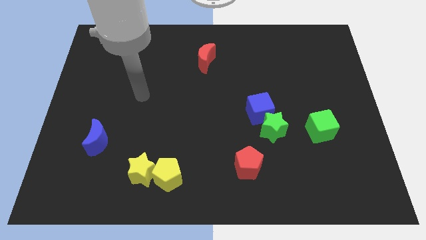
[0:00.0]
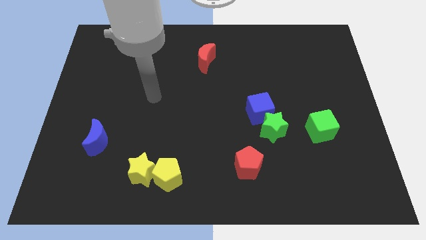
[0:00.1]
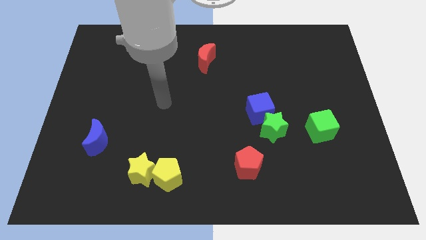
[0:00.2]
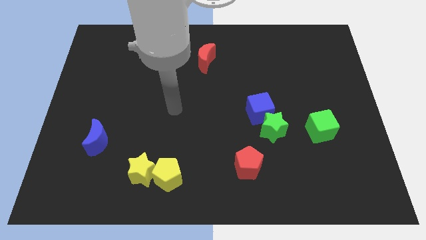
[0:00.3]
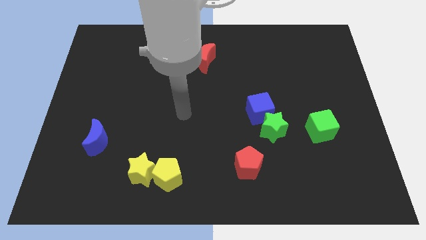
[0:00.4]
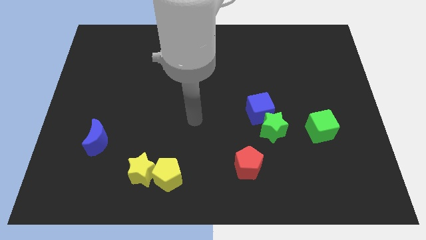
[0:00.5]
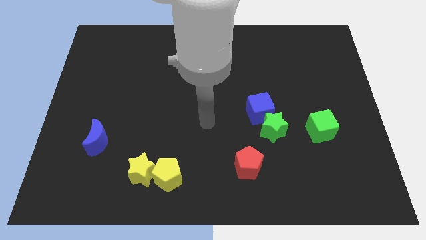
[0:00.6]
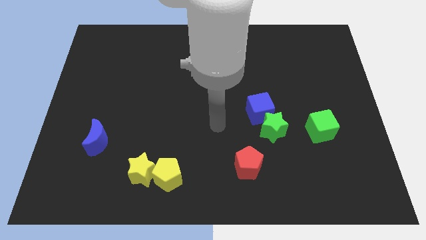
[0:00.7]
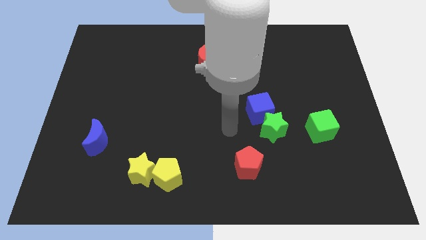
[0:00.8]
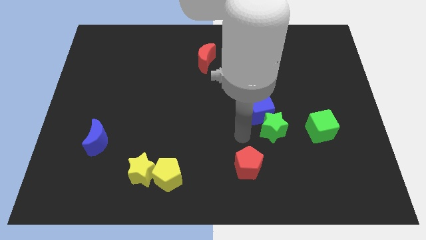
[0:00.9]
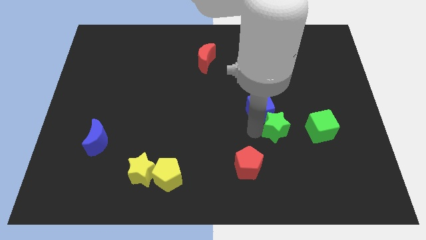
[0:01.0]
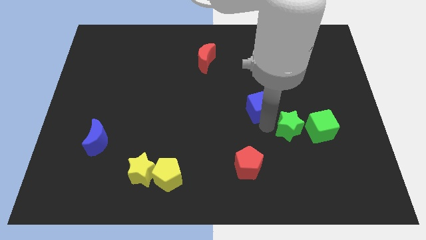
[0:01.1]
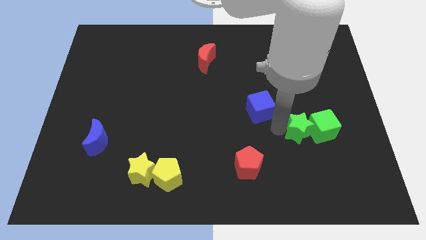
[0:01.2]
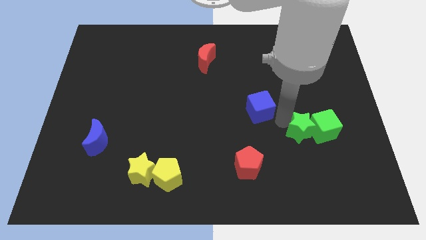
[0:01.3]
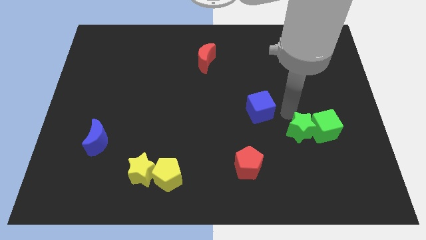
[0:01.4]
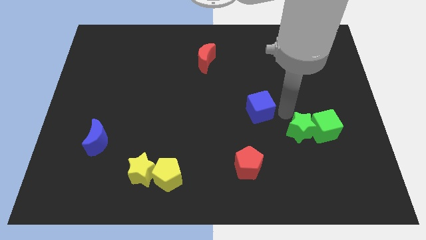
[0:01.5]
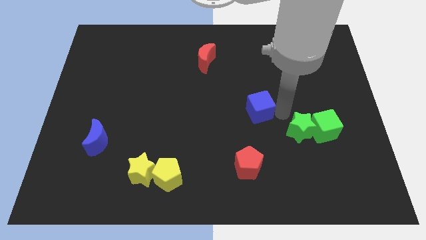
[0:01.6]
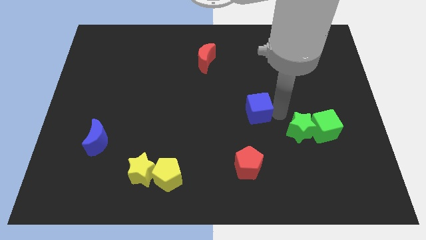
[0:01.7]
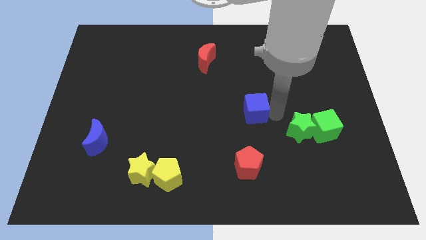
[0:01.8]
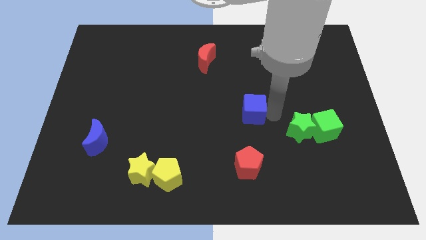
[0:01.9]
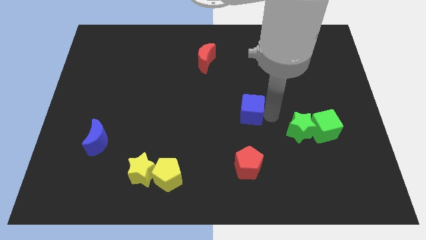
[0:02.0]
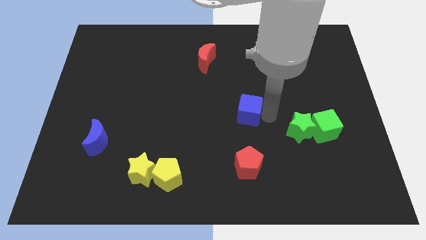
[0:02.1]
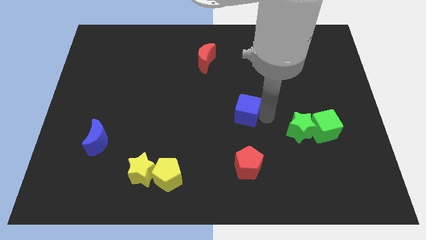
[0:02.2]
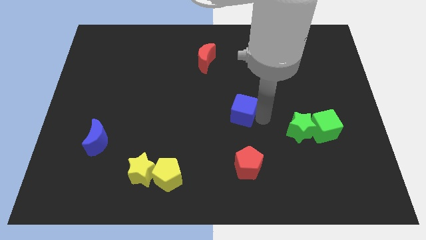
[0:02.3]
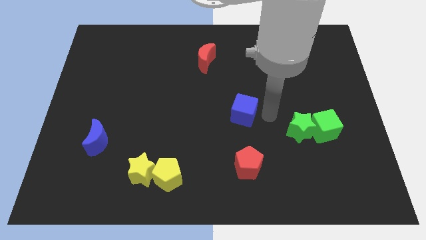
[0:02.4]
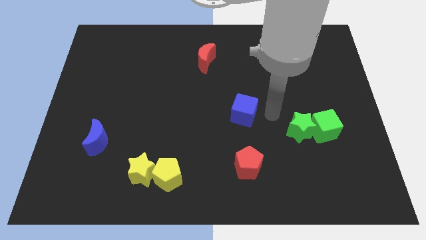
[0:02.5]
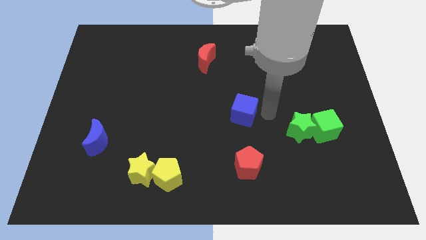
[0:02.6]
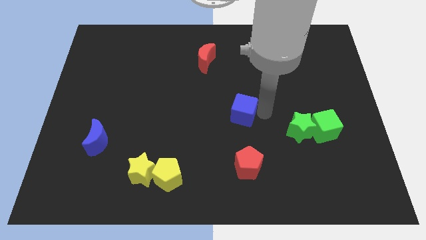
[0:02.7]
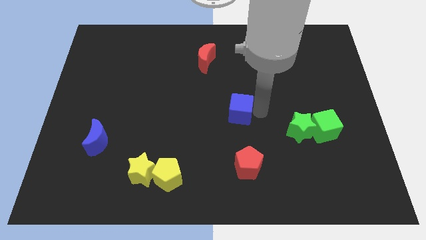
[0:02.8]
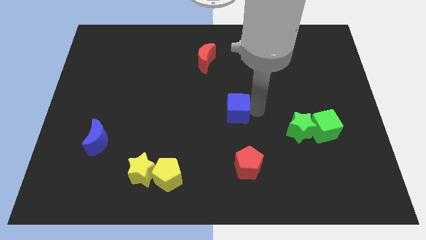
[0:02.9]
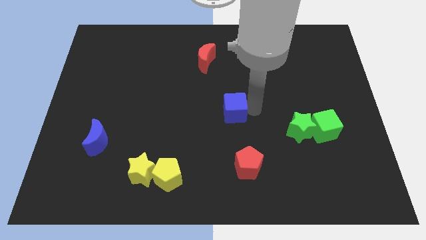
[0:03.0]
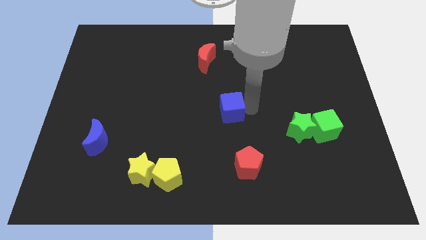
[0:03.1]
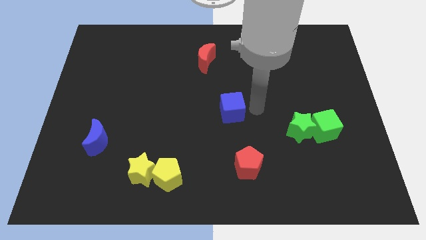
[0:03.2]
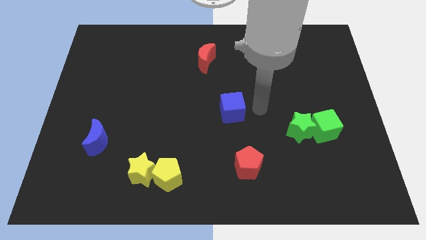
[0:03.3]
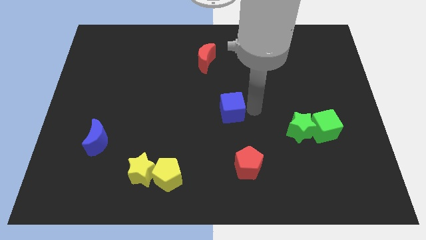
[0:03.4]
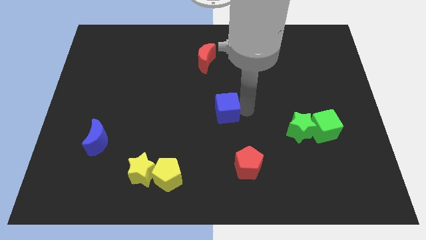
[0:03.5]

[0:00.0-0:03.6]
move the blue cube a little bit left

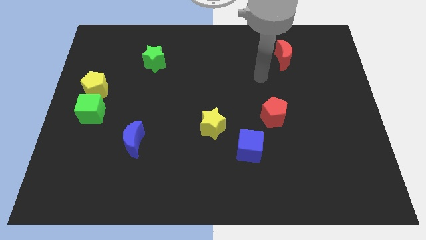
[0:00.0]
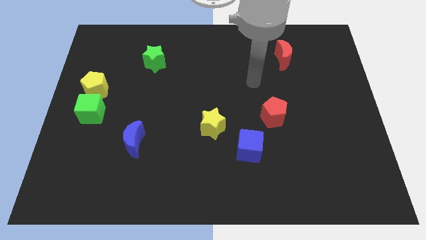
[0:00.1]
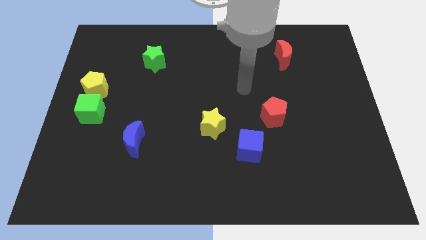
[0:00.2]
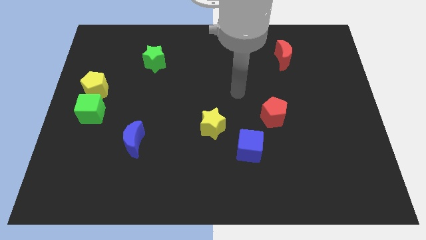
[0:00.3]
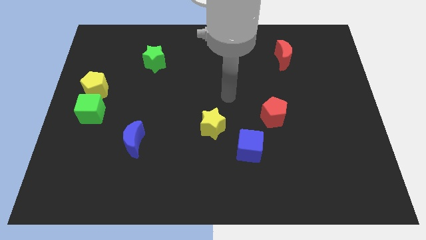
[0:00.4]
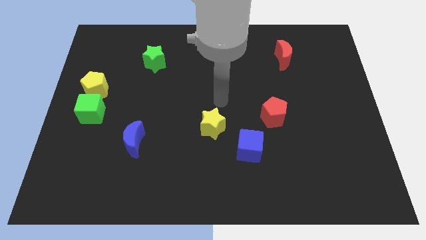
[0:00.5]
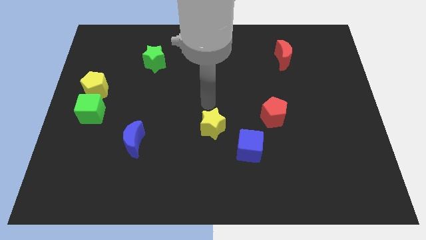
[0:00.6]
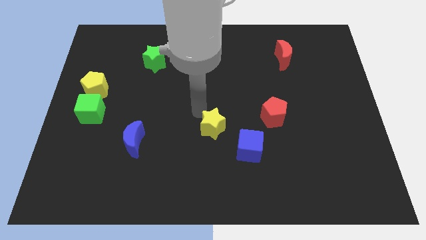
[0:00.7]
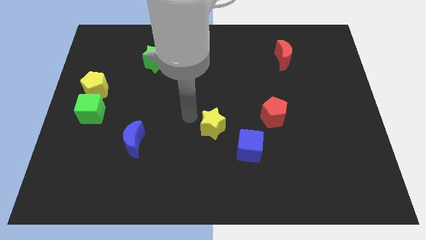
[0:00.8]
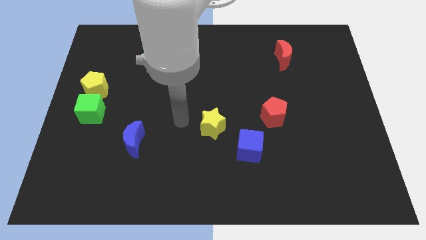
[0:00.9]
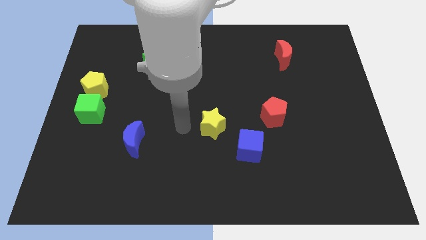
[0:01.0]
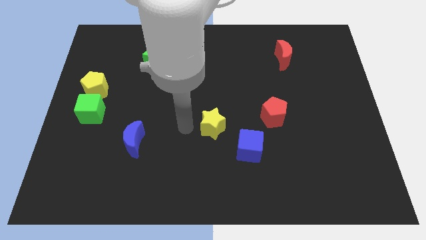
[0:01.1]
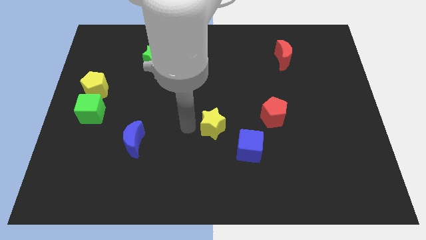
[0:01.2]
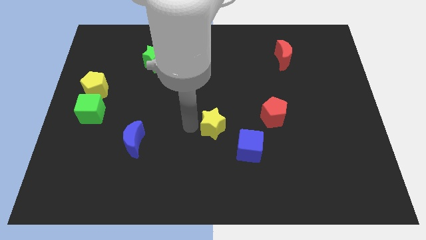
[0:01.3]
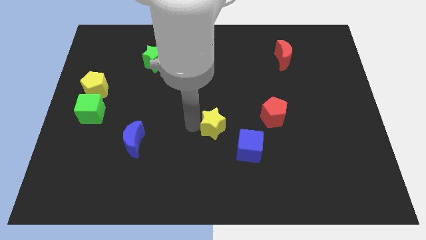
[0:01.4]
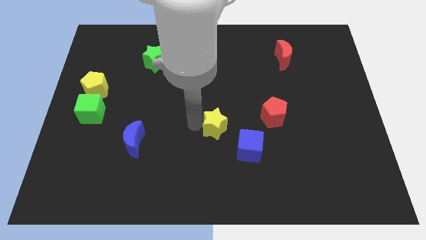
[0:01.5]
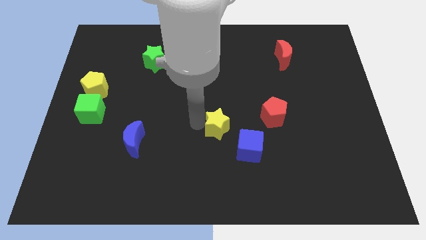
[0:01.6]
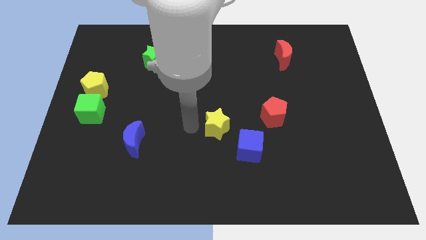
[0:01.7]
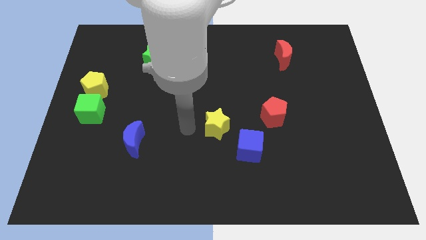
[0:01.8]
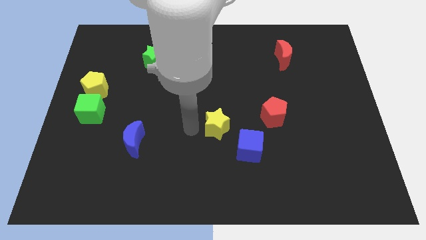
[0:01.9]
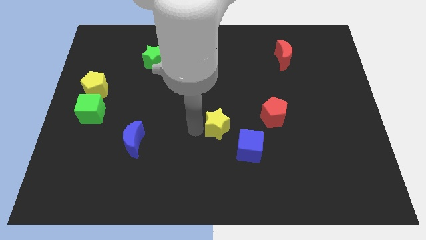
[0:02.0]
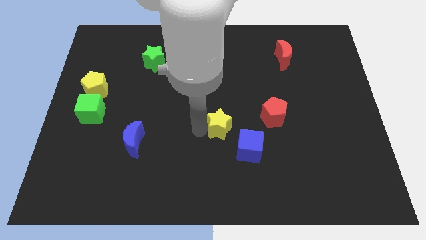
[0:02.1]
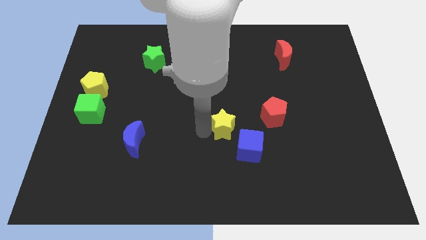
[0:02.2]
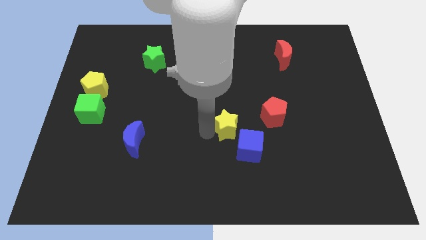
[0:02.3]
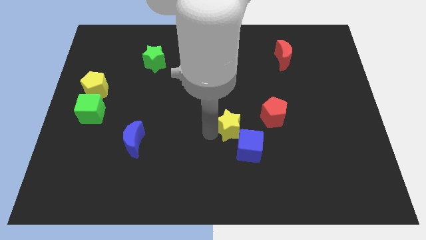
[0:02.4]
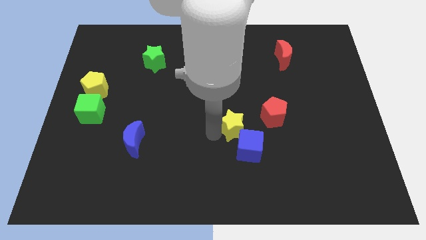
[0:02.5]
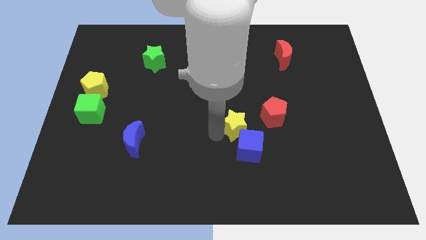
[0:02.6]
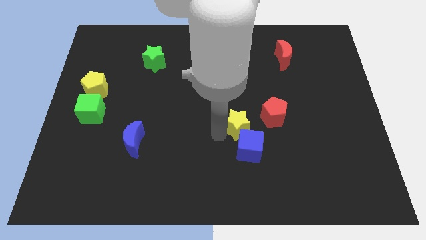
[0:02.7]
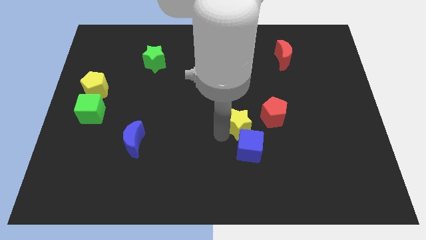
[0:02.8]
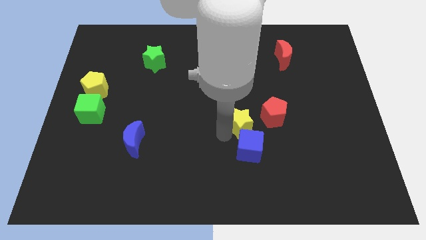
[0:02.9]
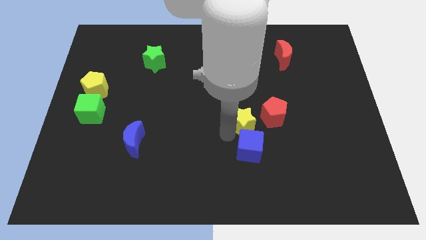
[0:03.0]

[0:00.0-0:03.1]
move the yellow star slightly to the right

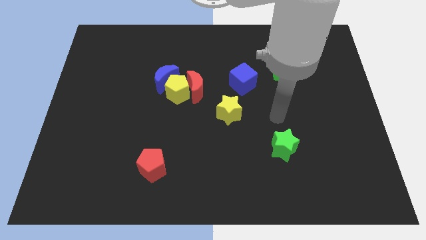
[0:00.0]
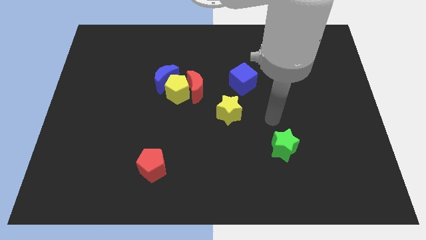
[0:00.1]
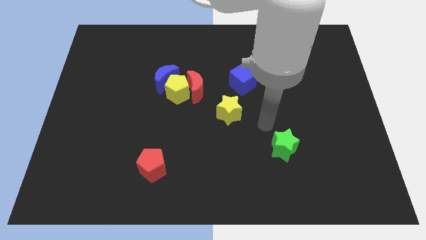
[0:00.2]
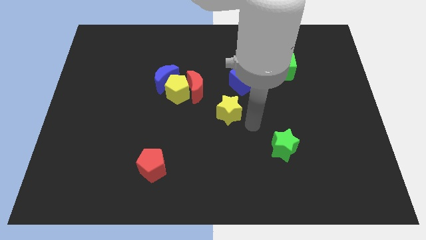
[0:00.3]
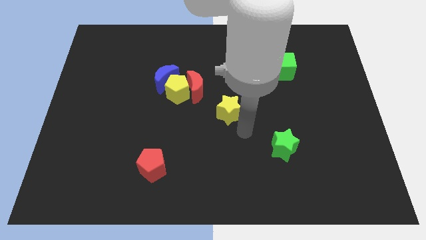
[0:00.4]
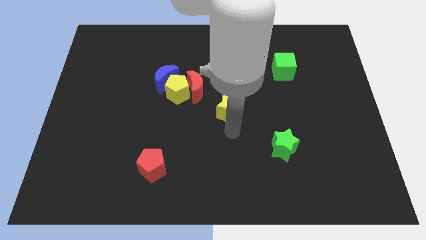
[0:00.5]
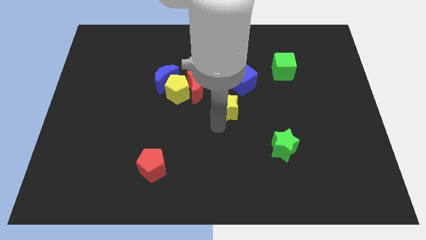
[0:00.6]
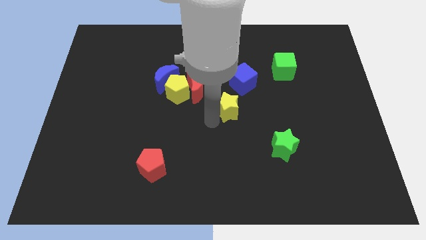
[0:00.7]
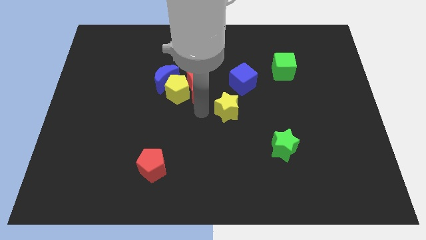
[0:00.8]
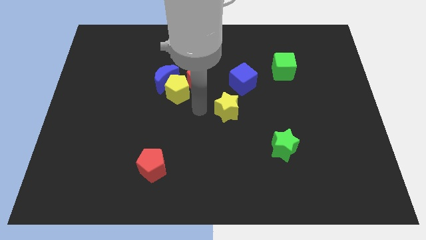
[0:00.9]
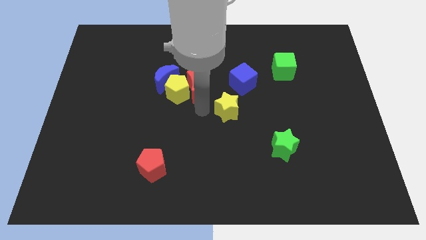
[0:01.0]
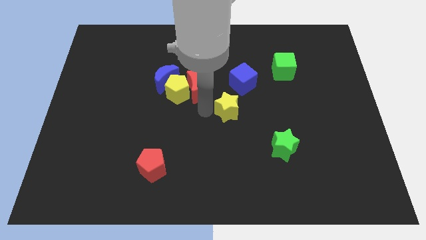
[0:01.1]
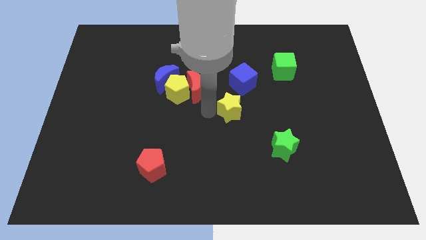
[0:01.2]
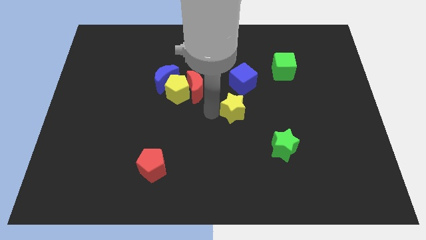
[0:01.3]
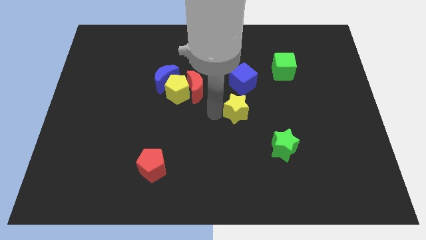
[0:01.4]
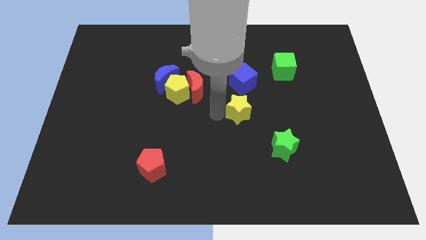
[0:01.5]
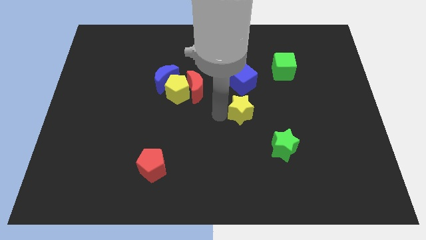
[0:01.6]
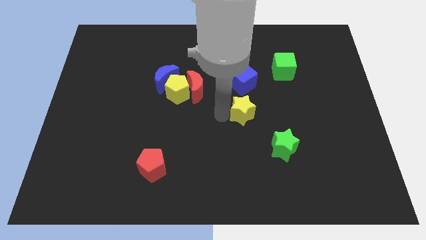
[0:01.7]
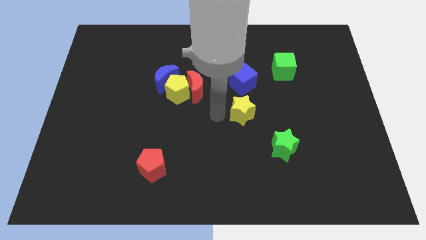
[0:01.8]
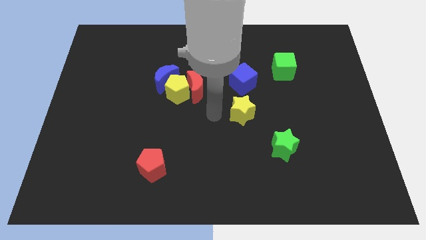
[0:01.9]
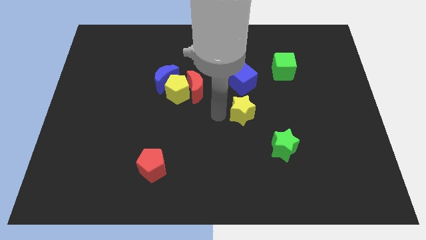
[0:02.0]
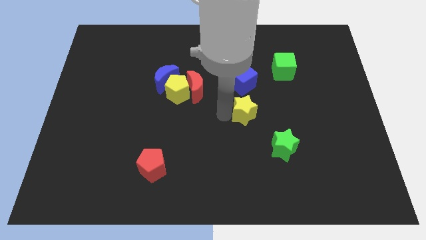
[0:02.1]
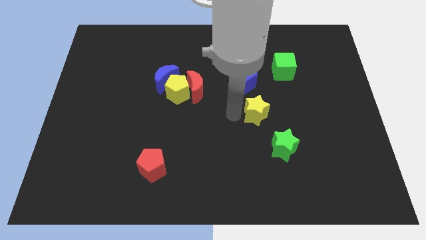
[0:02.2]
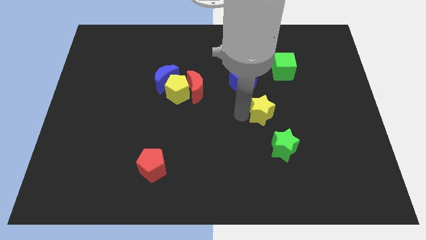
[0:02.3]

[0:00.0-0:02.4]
push the yellow star to the right a little bit
